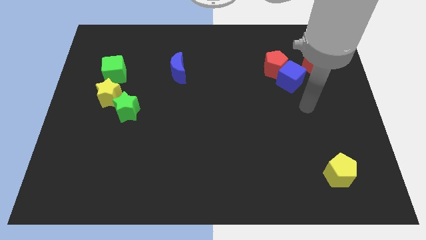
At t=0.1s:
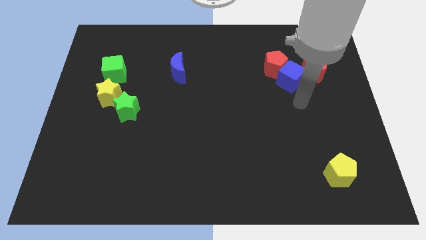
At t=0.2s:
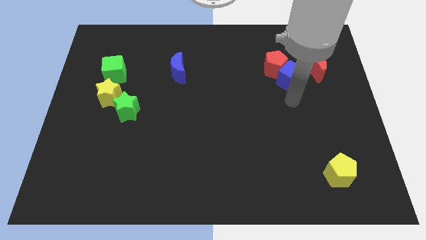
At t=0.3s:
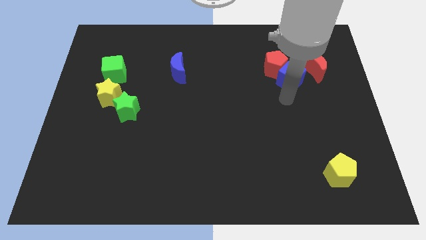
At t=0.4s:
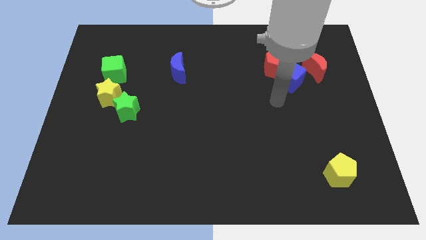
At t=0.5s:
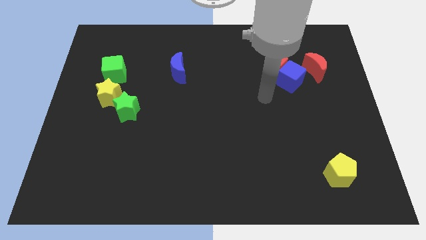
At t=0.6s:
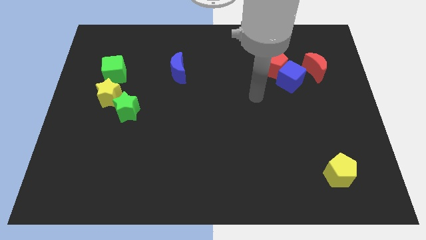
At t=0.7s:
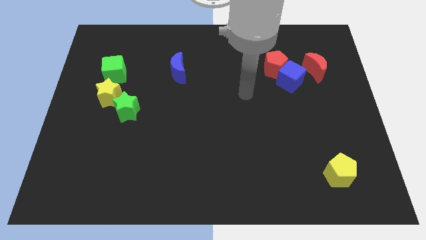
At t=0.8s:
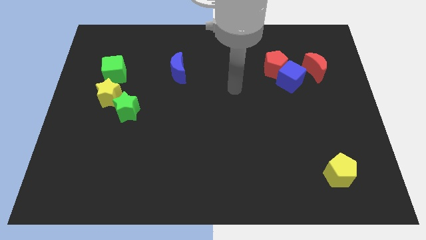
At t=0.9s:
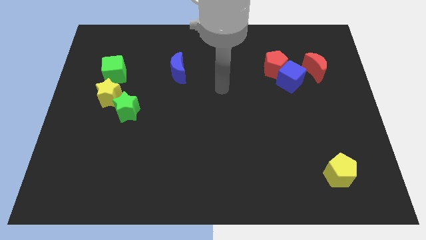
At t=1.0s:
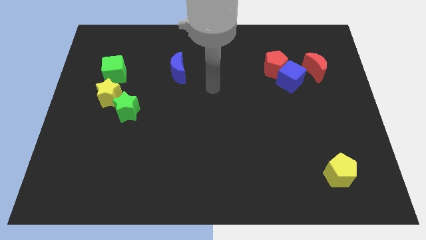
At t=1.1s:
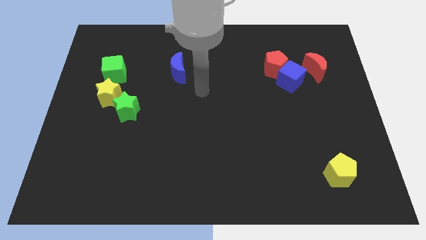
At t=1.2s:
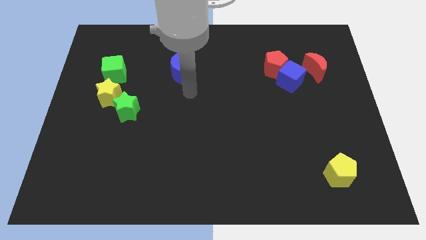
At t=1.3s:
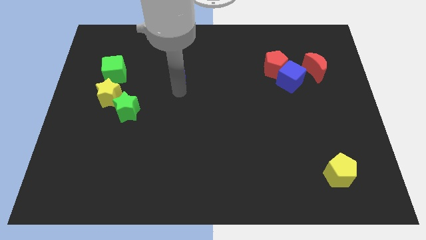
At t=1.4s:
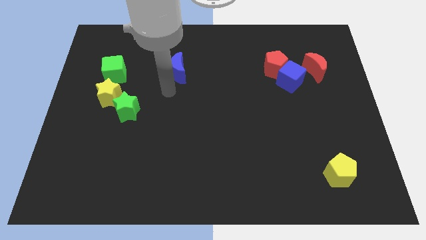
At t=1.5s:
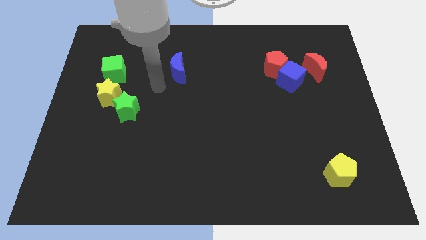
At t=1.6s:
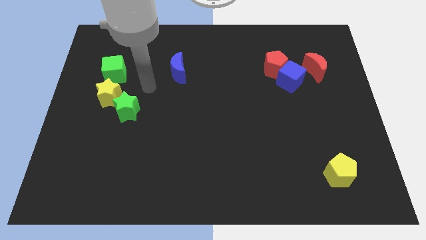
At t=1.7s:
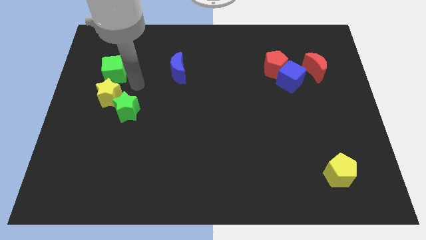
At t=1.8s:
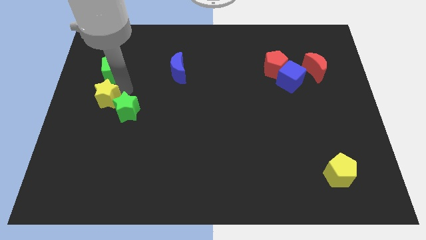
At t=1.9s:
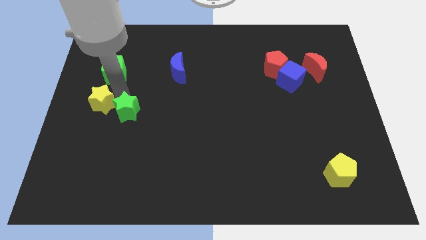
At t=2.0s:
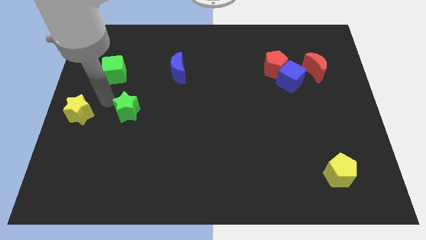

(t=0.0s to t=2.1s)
pull the green star apart from the yellow star

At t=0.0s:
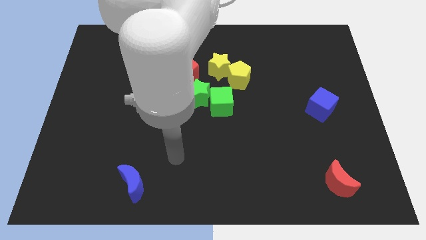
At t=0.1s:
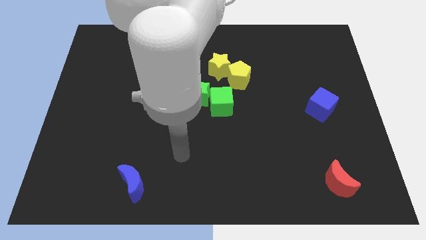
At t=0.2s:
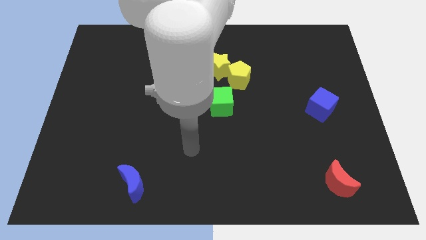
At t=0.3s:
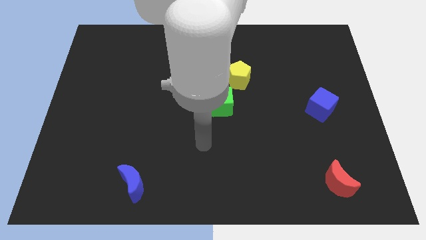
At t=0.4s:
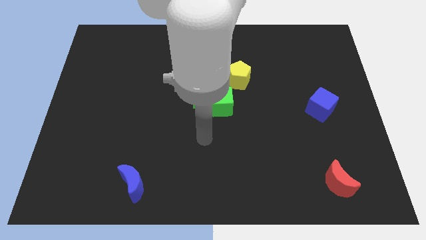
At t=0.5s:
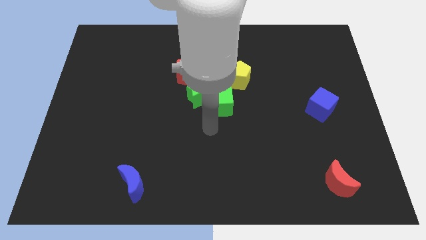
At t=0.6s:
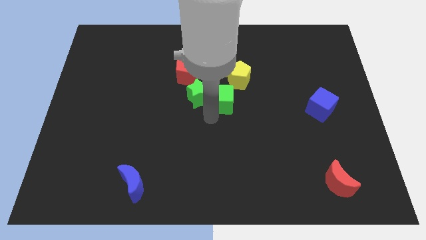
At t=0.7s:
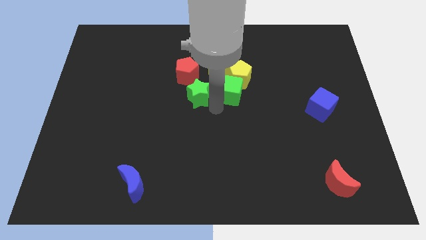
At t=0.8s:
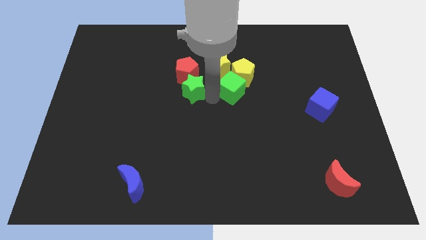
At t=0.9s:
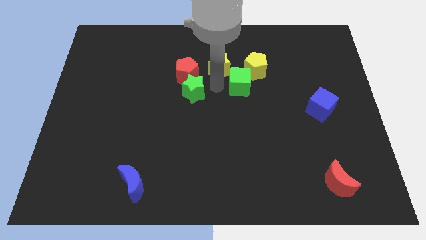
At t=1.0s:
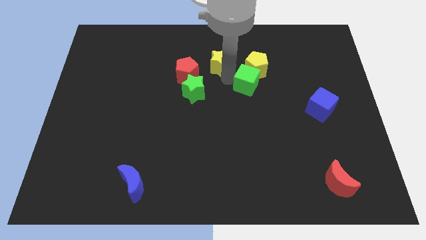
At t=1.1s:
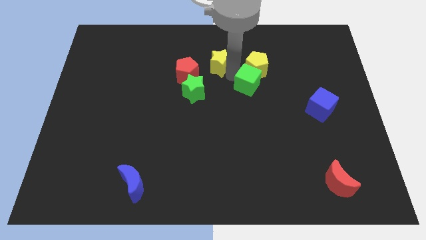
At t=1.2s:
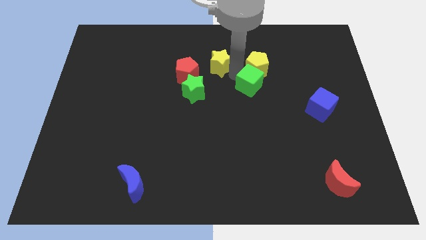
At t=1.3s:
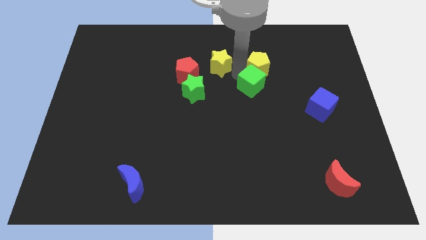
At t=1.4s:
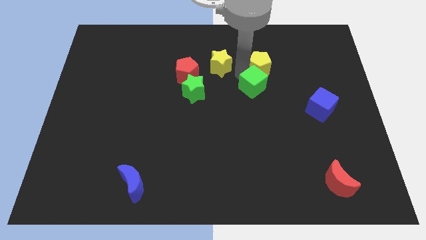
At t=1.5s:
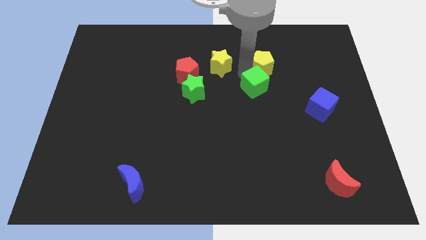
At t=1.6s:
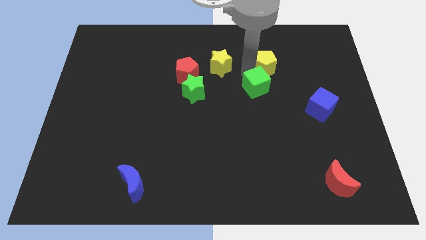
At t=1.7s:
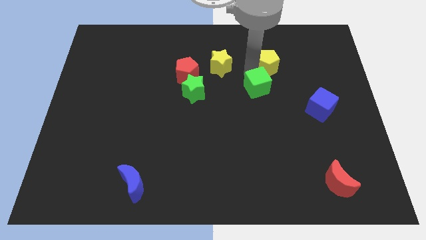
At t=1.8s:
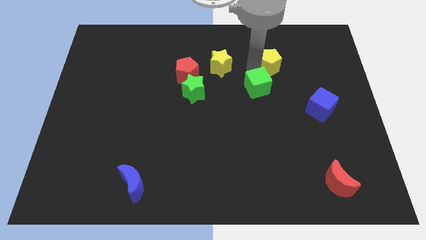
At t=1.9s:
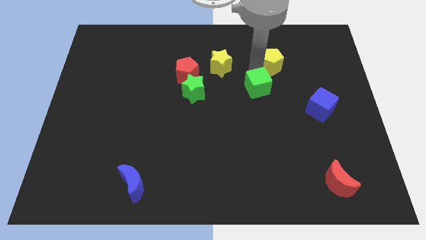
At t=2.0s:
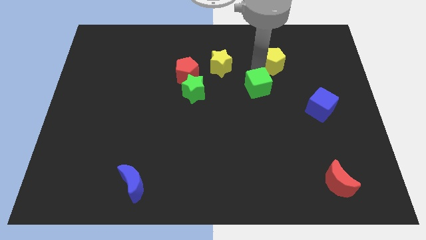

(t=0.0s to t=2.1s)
separate the yellow pentagon from the yellow star and green cube

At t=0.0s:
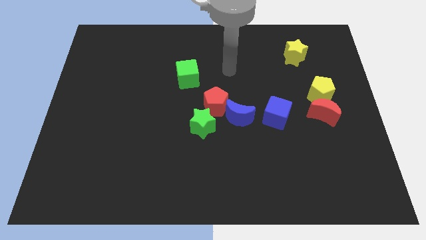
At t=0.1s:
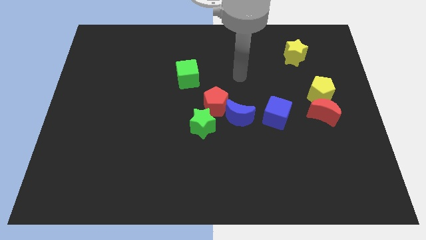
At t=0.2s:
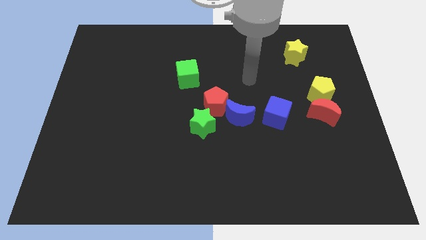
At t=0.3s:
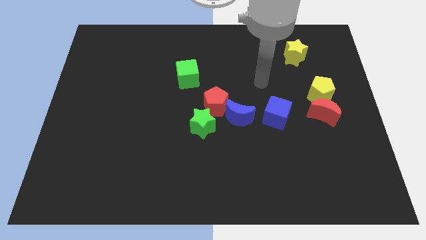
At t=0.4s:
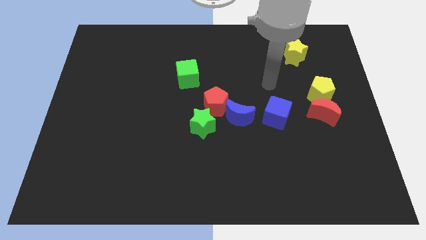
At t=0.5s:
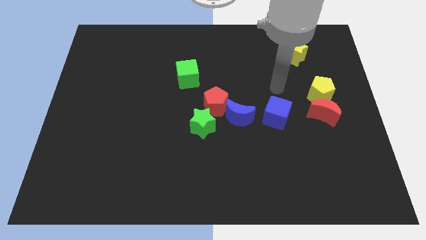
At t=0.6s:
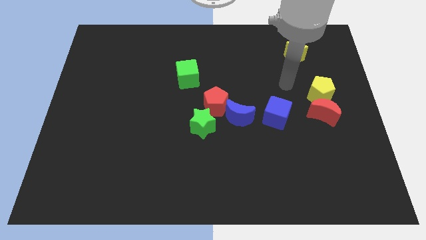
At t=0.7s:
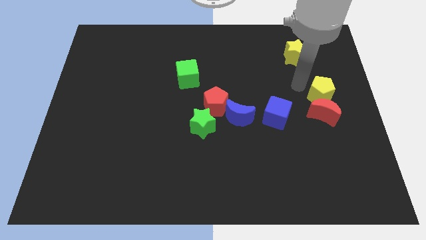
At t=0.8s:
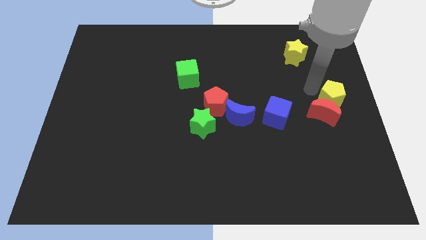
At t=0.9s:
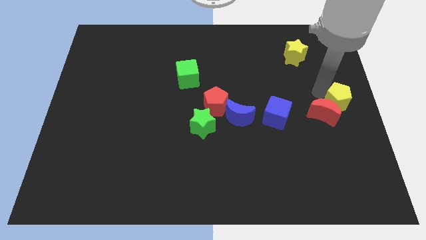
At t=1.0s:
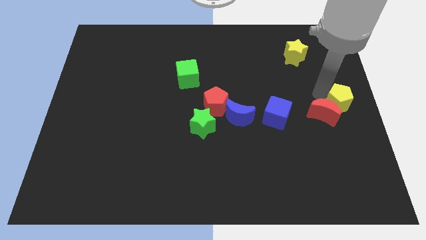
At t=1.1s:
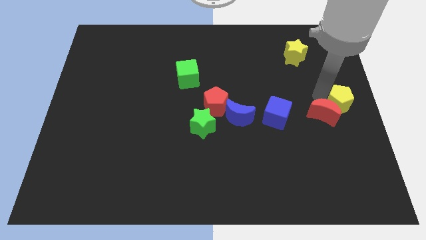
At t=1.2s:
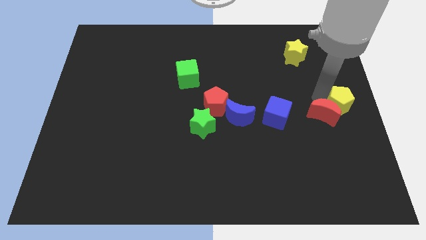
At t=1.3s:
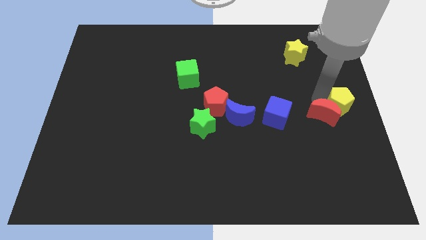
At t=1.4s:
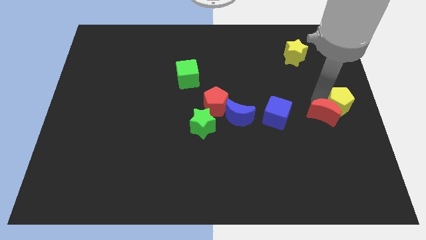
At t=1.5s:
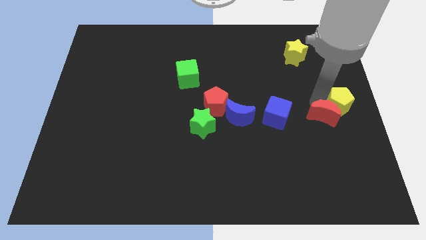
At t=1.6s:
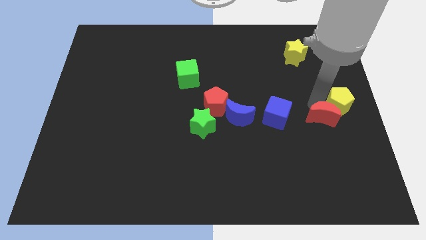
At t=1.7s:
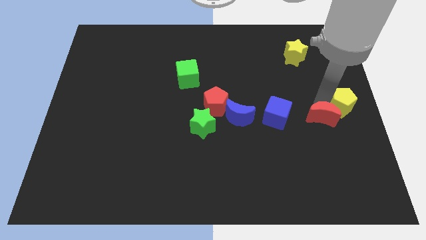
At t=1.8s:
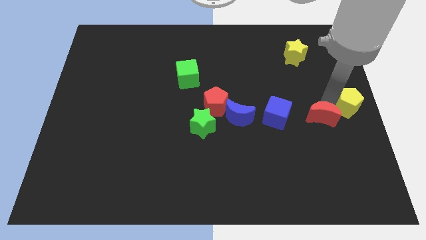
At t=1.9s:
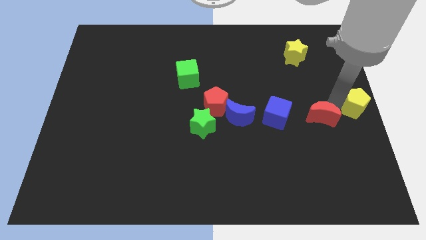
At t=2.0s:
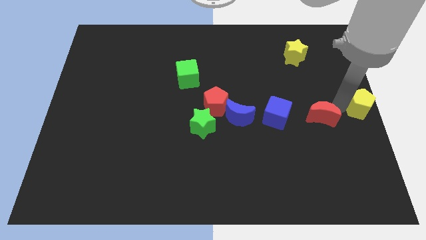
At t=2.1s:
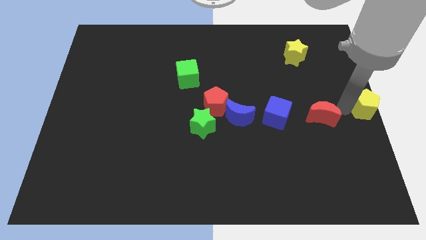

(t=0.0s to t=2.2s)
move the red moon away from the yellow pentagon

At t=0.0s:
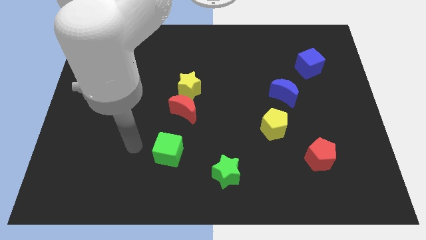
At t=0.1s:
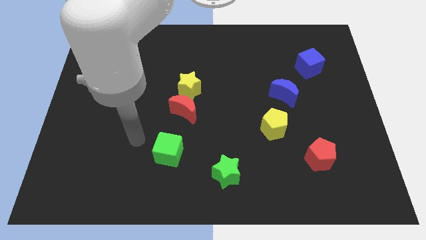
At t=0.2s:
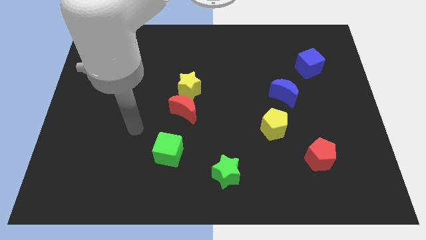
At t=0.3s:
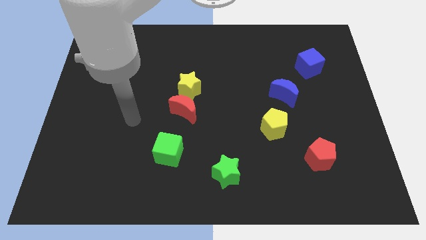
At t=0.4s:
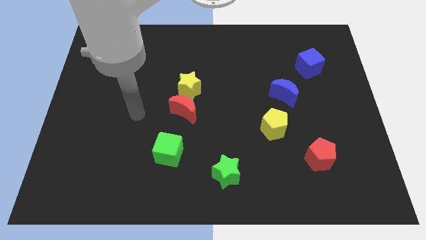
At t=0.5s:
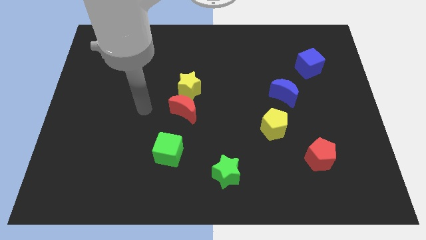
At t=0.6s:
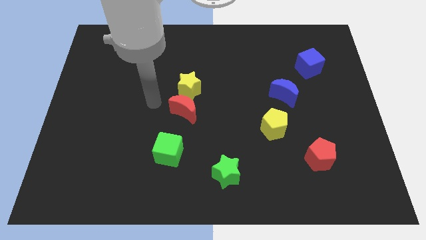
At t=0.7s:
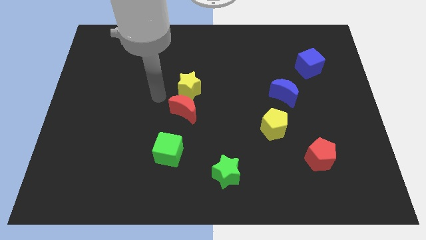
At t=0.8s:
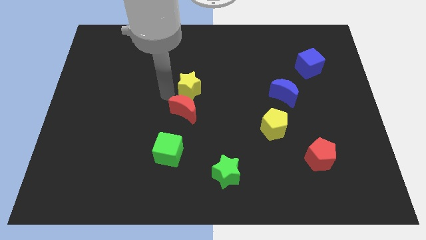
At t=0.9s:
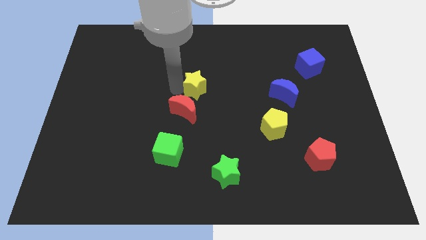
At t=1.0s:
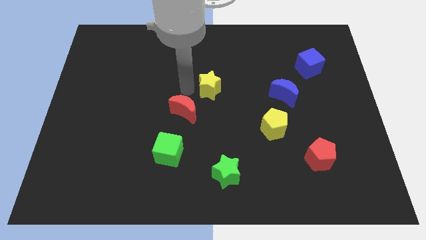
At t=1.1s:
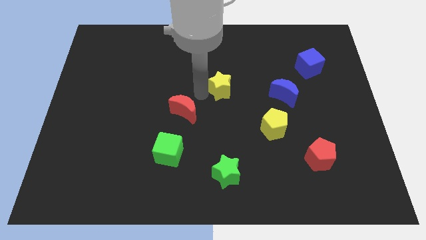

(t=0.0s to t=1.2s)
move the red moon away from the yellow star

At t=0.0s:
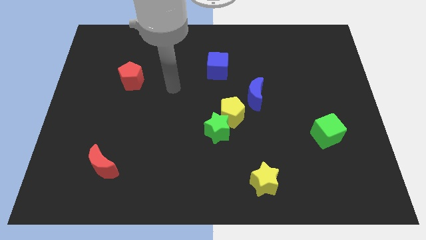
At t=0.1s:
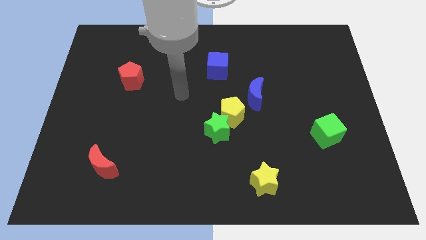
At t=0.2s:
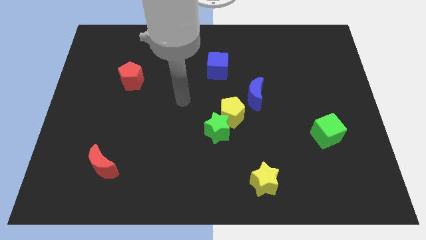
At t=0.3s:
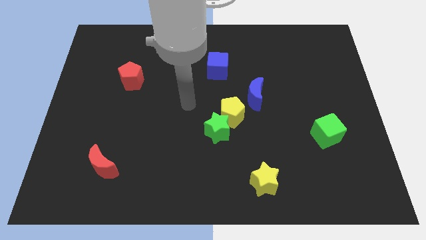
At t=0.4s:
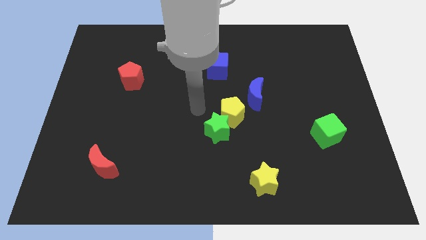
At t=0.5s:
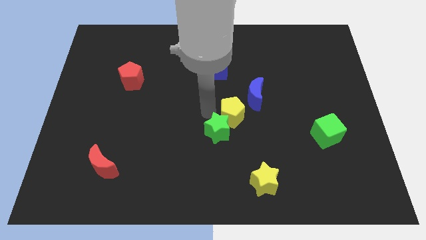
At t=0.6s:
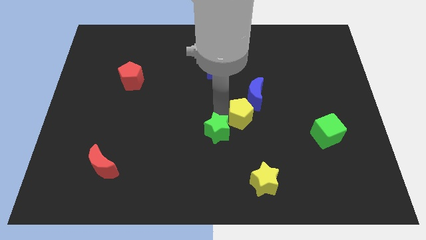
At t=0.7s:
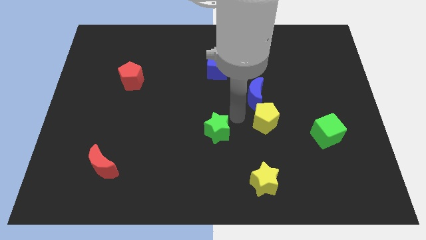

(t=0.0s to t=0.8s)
move the green star away from the yellow pentagon

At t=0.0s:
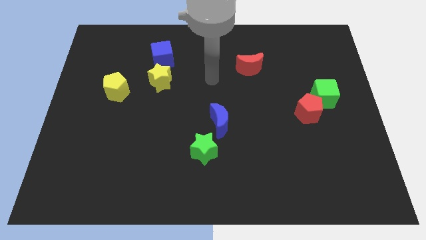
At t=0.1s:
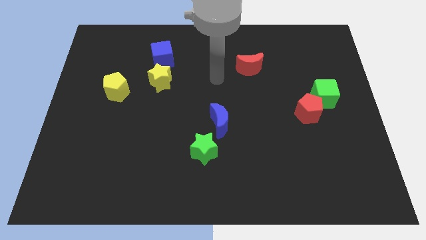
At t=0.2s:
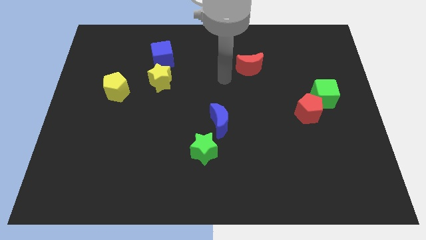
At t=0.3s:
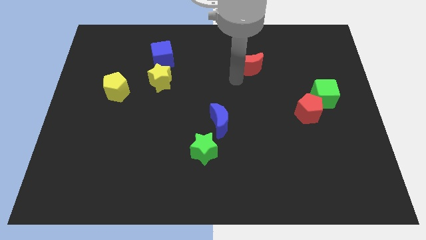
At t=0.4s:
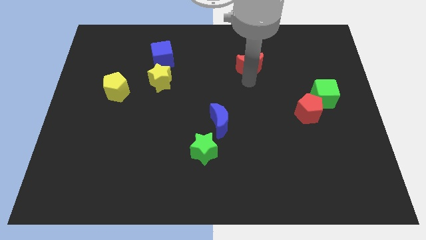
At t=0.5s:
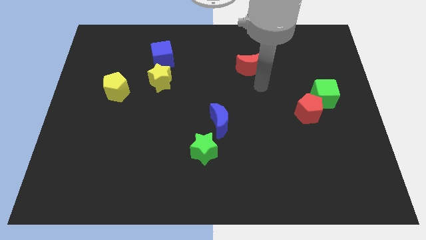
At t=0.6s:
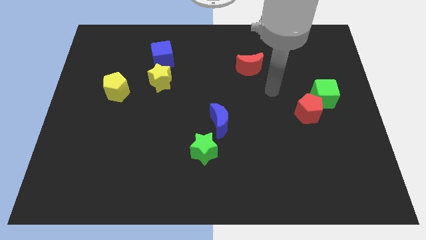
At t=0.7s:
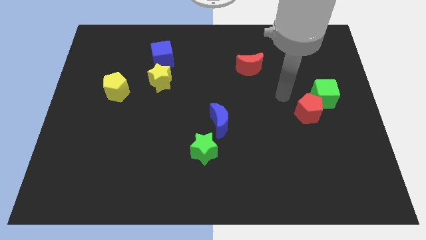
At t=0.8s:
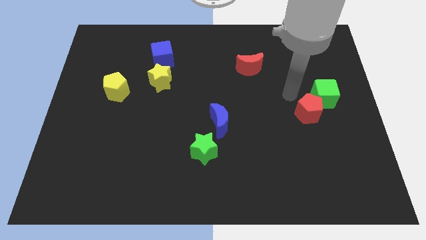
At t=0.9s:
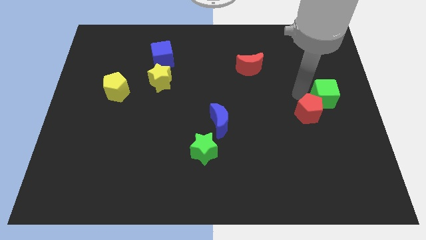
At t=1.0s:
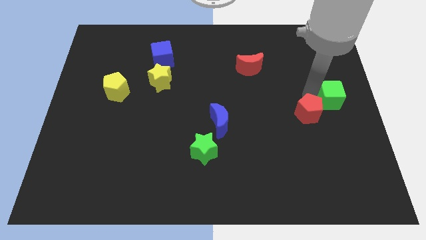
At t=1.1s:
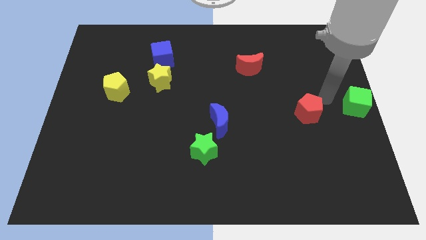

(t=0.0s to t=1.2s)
move the red pentagon away from the green cube
